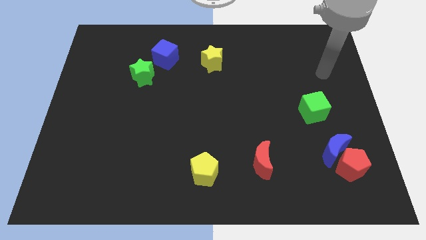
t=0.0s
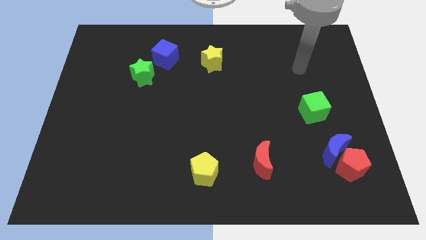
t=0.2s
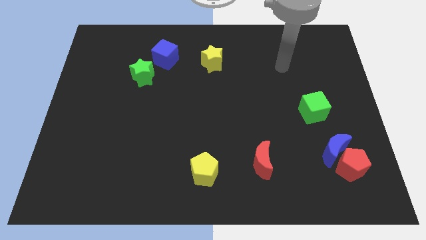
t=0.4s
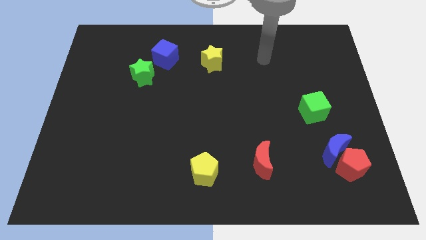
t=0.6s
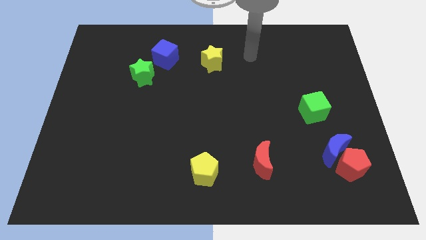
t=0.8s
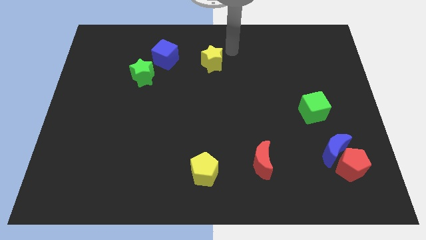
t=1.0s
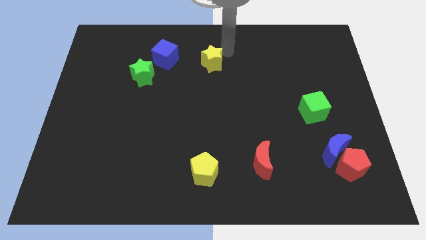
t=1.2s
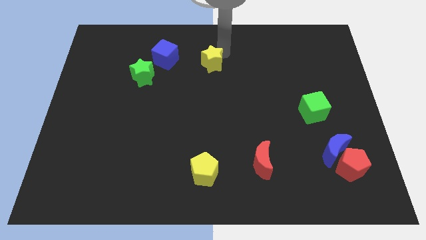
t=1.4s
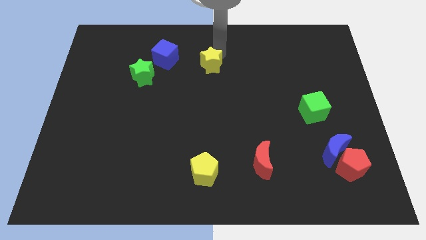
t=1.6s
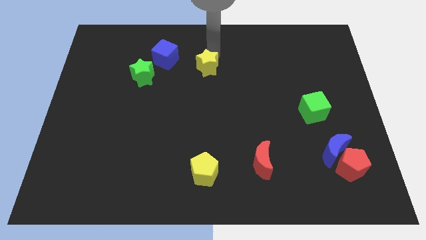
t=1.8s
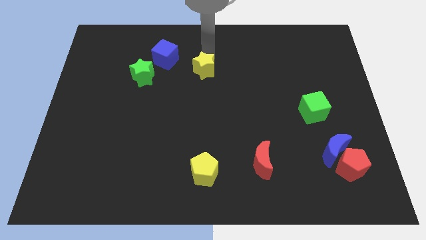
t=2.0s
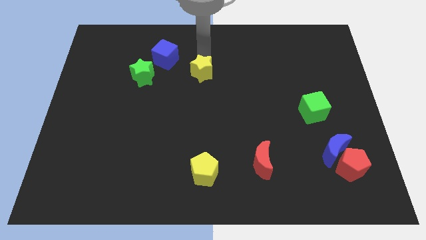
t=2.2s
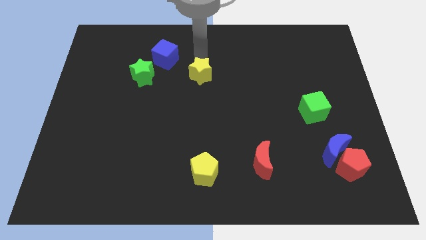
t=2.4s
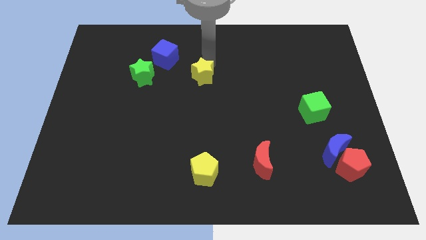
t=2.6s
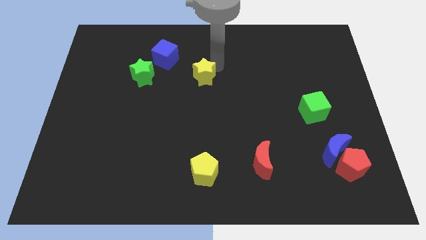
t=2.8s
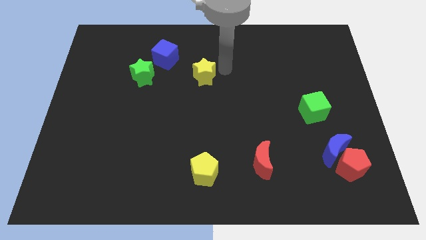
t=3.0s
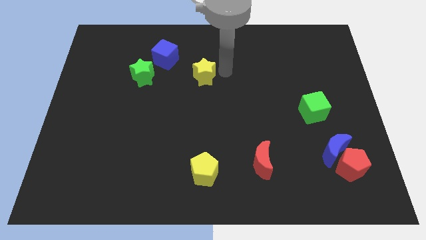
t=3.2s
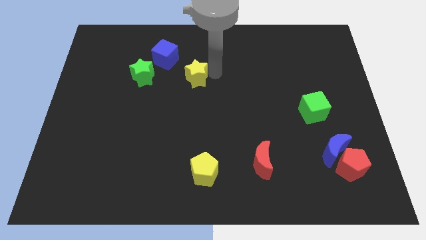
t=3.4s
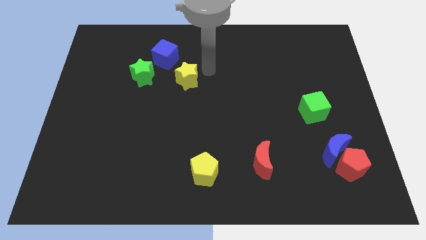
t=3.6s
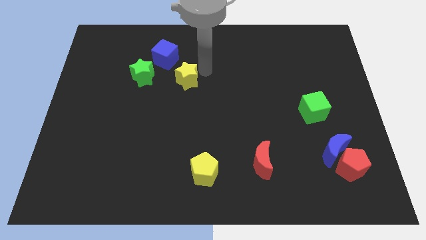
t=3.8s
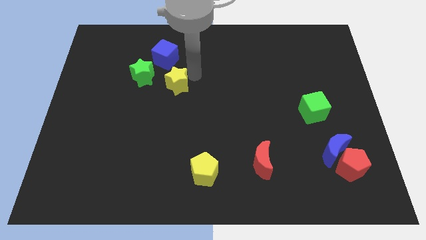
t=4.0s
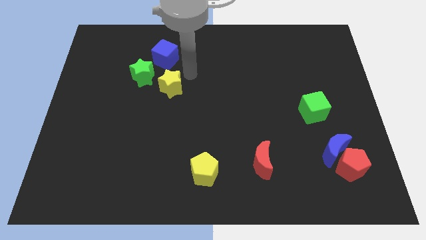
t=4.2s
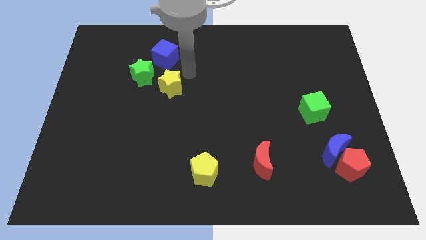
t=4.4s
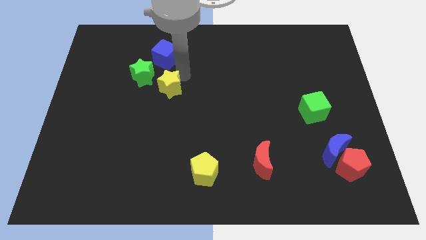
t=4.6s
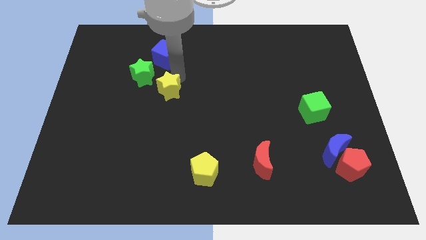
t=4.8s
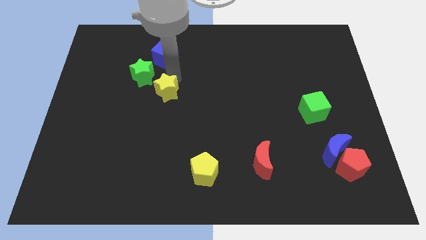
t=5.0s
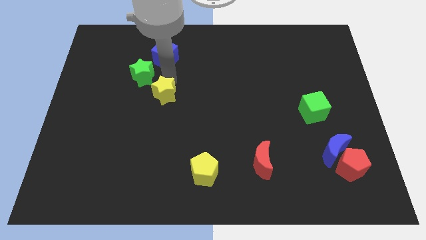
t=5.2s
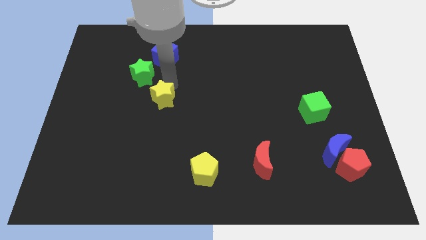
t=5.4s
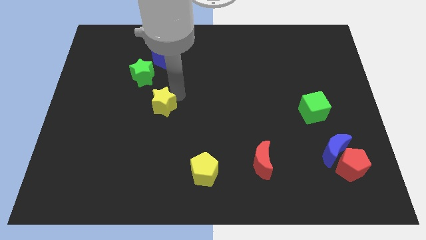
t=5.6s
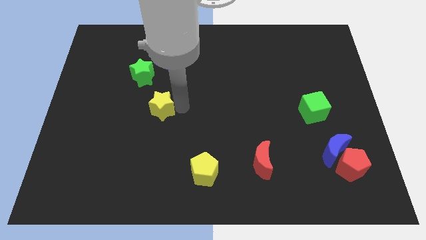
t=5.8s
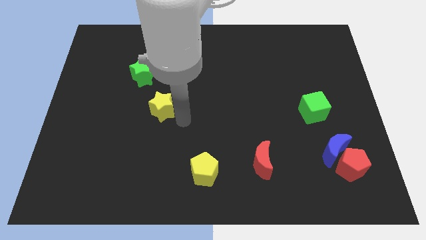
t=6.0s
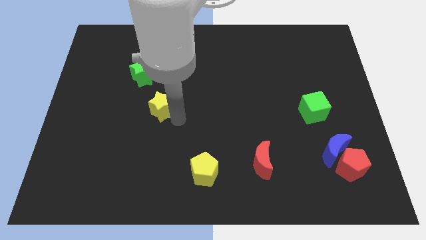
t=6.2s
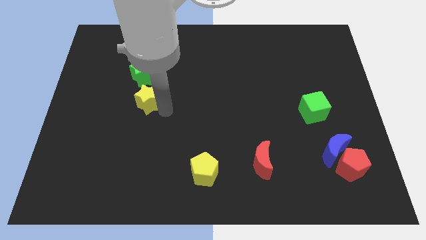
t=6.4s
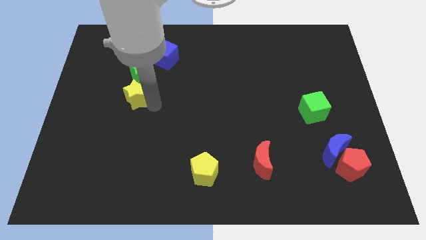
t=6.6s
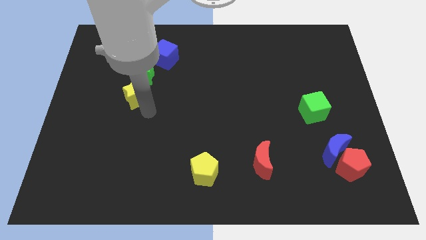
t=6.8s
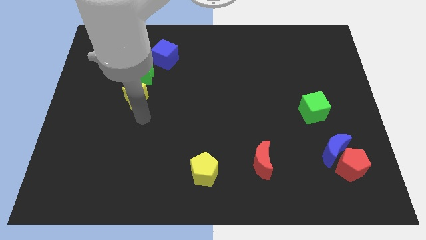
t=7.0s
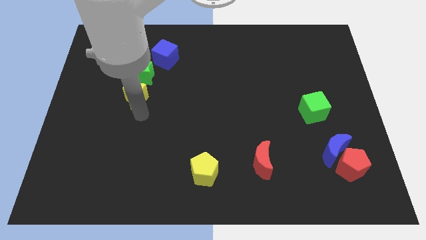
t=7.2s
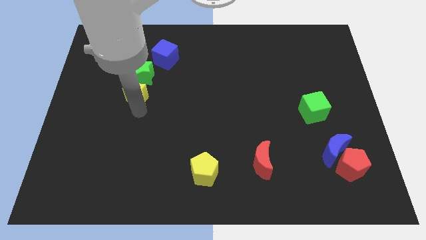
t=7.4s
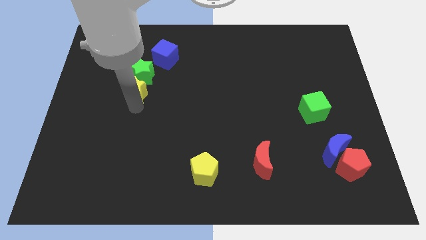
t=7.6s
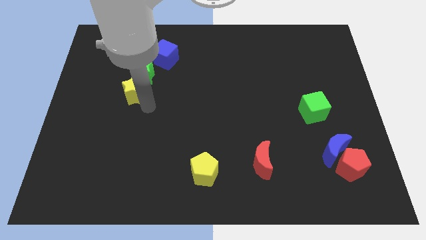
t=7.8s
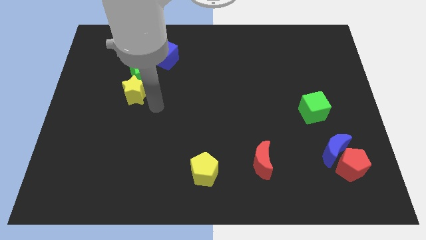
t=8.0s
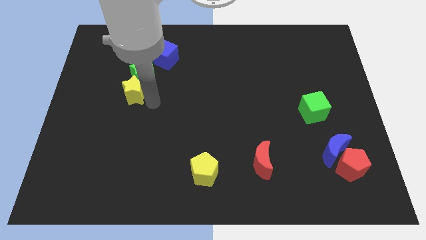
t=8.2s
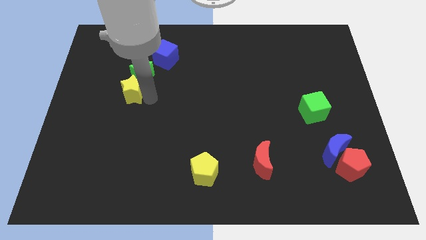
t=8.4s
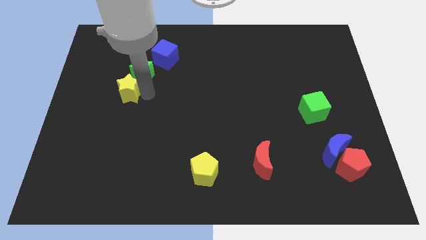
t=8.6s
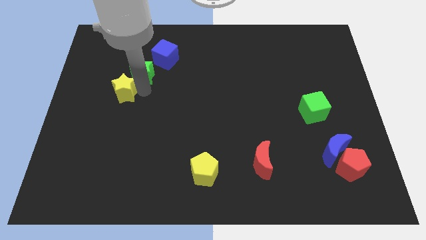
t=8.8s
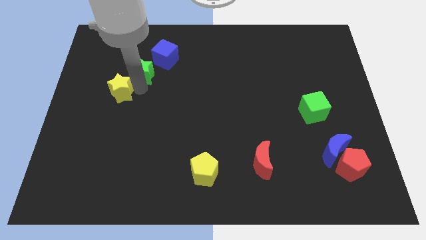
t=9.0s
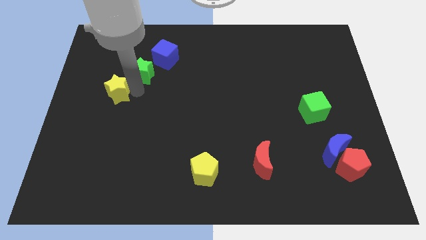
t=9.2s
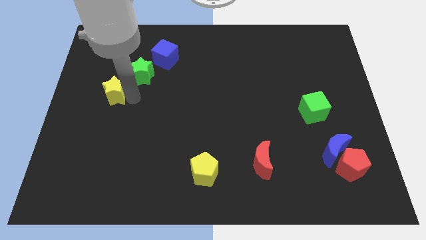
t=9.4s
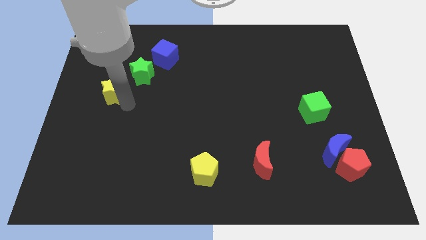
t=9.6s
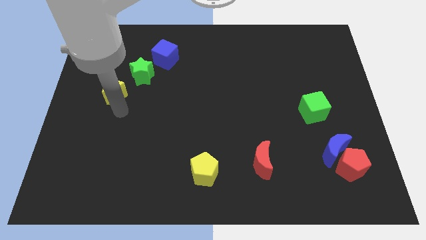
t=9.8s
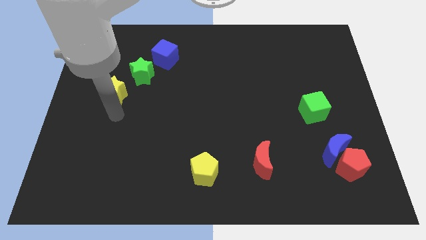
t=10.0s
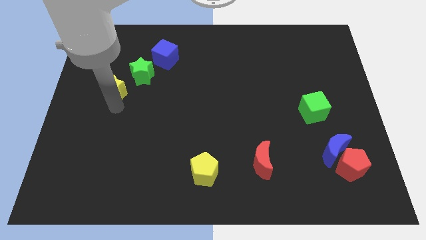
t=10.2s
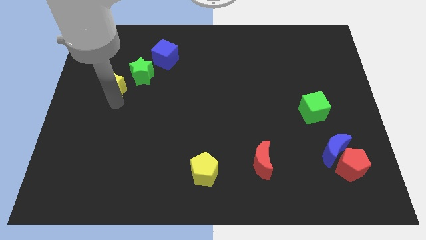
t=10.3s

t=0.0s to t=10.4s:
put the yellow star left of the green star

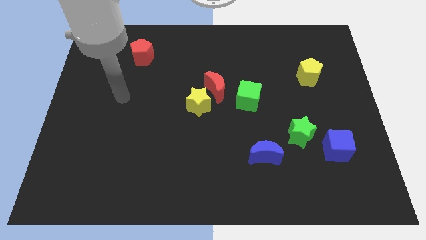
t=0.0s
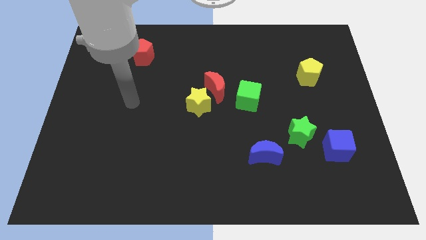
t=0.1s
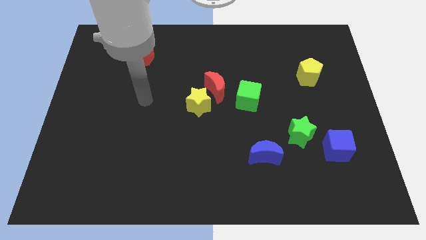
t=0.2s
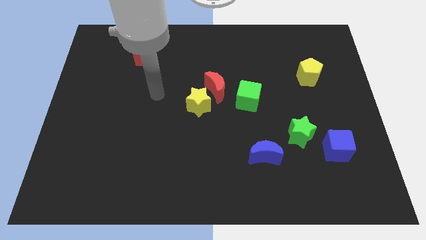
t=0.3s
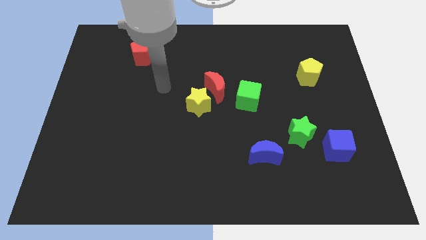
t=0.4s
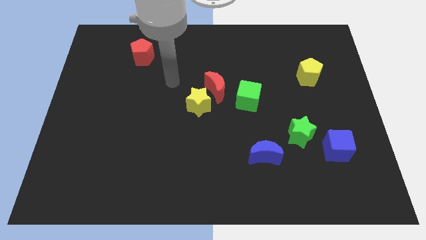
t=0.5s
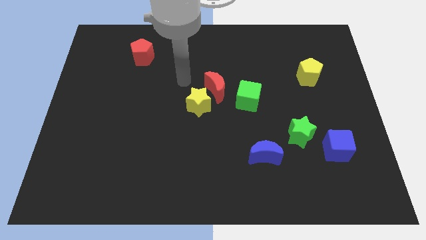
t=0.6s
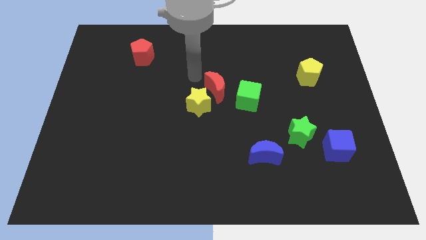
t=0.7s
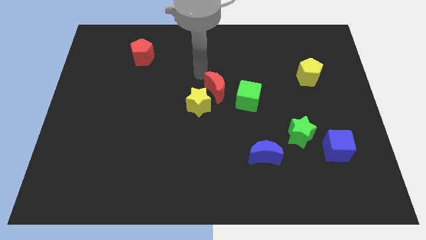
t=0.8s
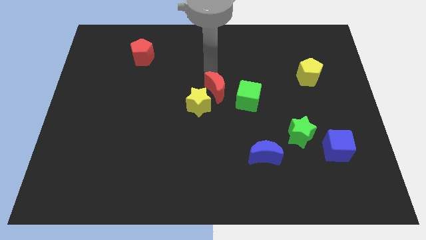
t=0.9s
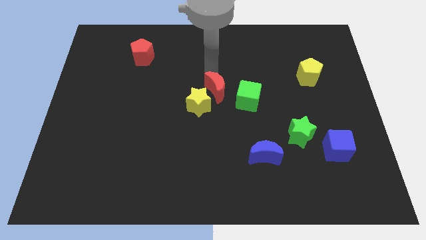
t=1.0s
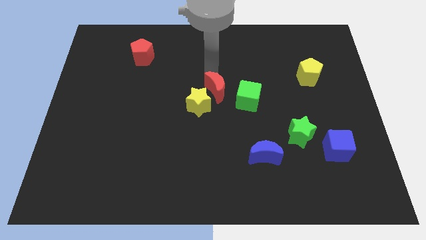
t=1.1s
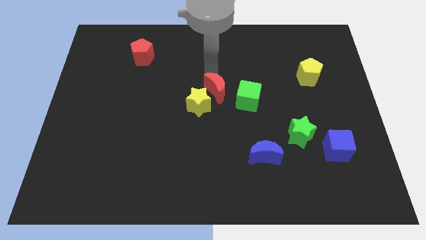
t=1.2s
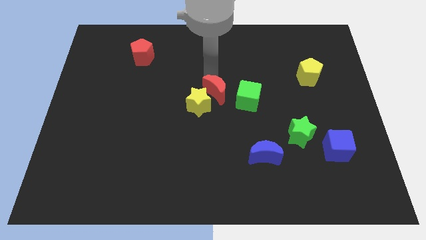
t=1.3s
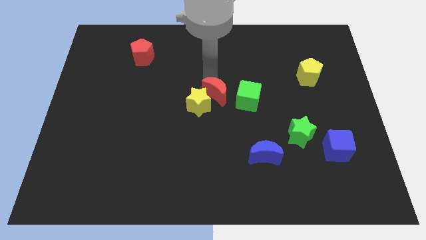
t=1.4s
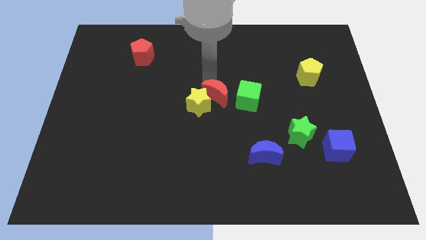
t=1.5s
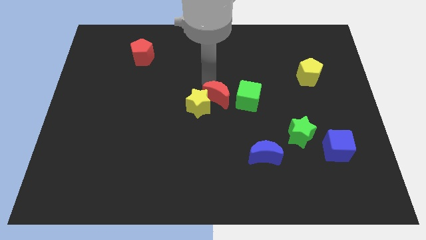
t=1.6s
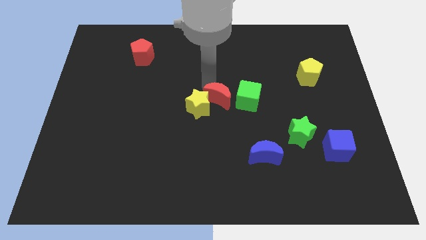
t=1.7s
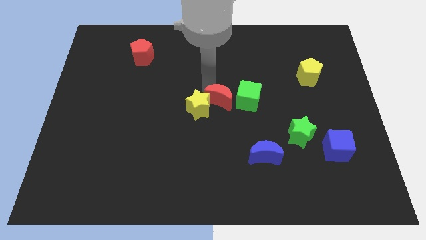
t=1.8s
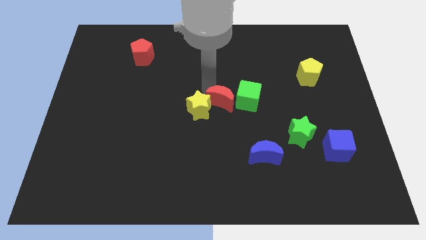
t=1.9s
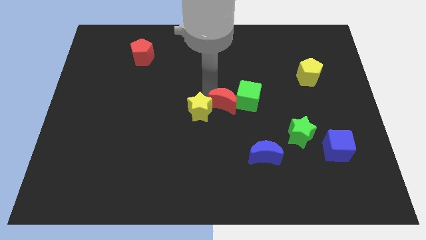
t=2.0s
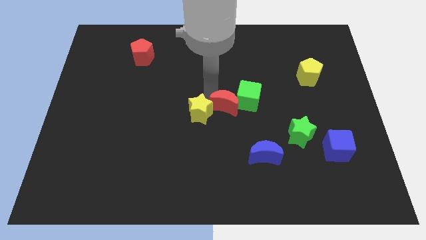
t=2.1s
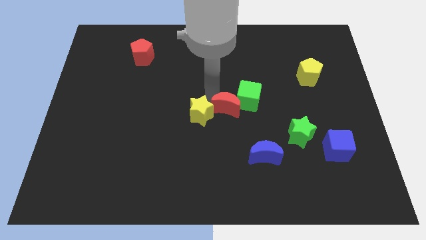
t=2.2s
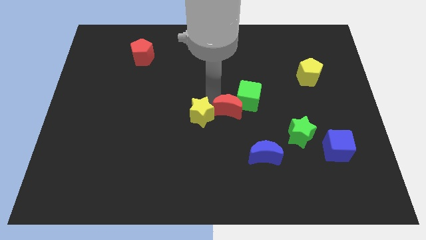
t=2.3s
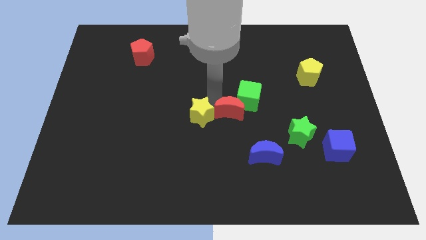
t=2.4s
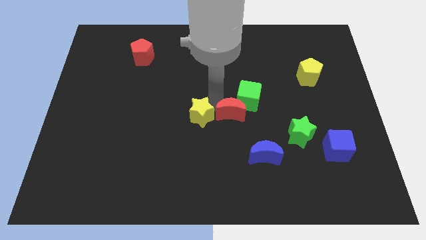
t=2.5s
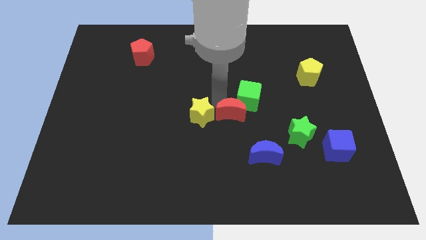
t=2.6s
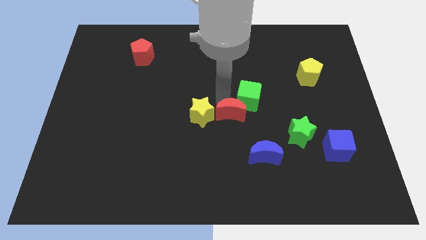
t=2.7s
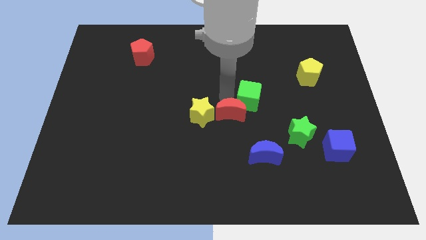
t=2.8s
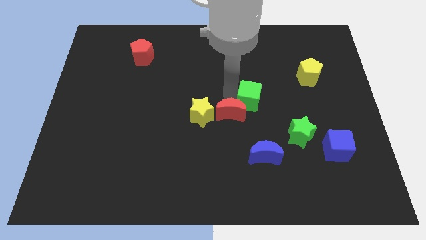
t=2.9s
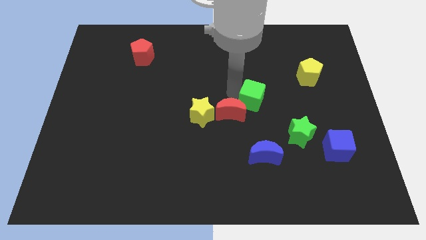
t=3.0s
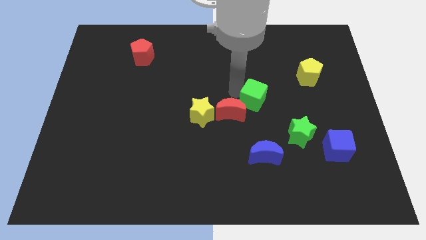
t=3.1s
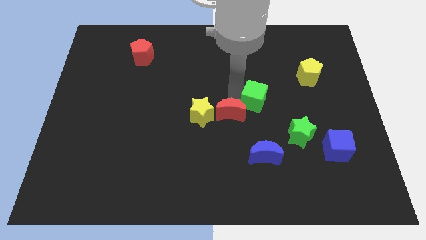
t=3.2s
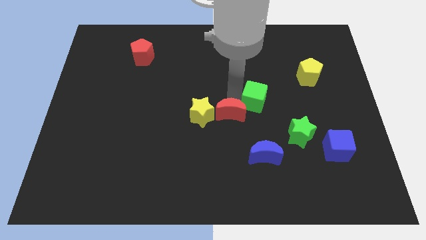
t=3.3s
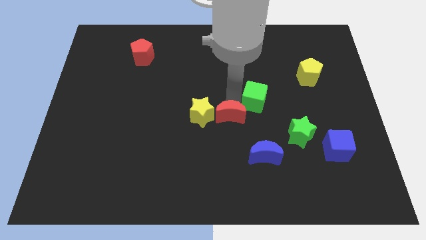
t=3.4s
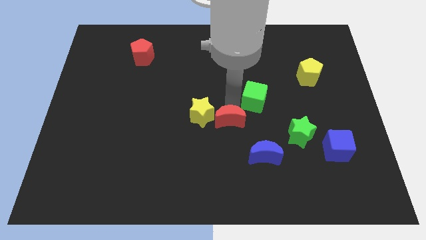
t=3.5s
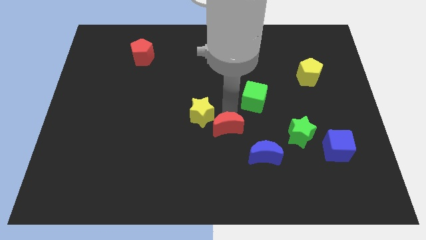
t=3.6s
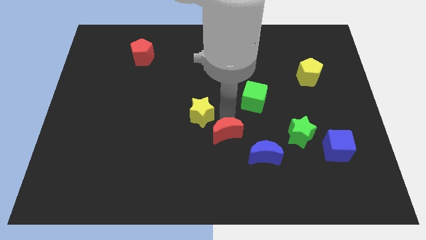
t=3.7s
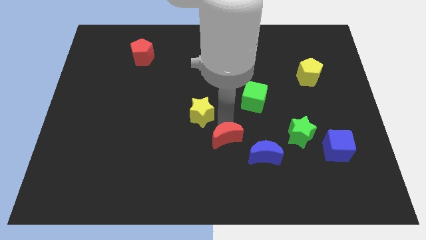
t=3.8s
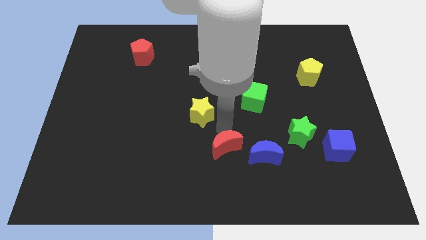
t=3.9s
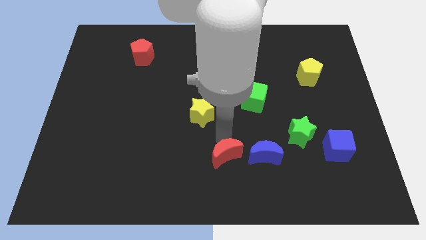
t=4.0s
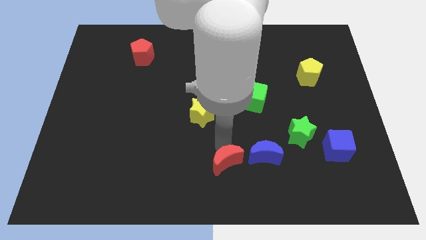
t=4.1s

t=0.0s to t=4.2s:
put the red moon to the bottom left of the blue moon
